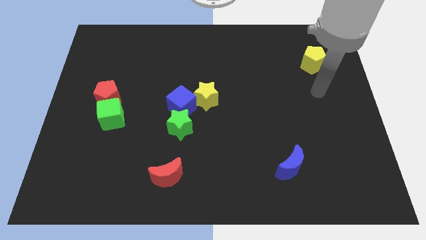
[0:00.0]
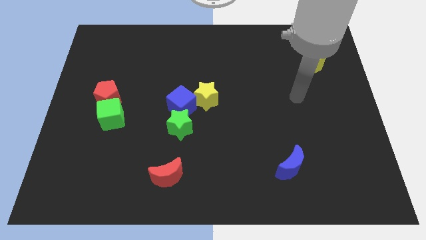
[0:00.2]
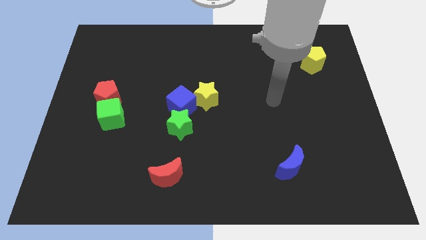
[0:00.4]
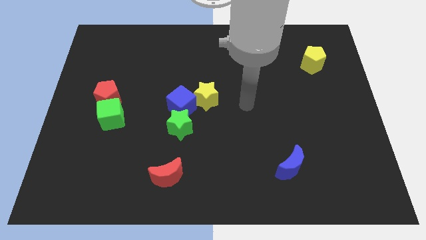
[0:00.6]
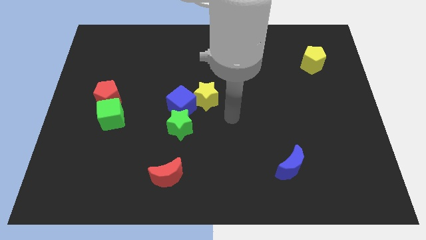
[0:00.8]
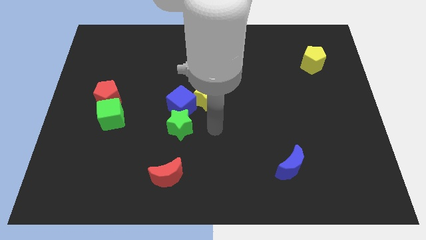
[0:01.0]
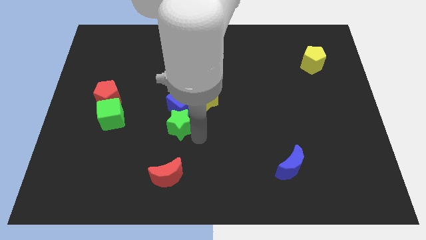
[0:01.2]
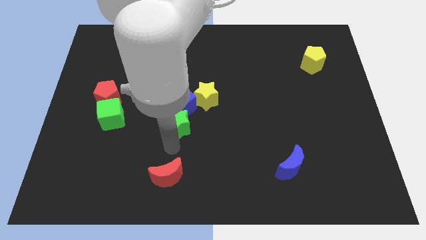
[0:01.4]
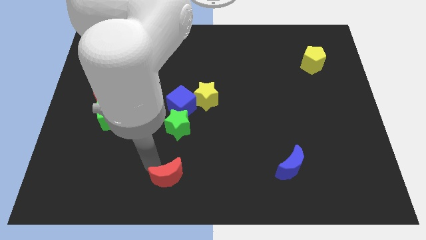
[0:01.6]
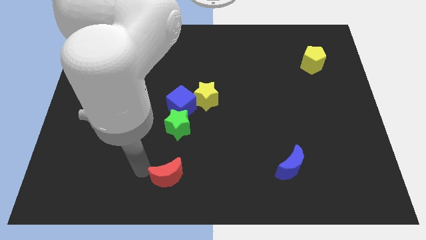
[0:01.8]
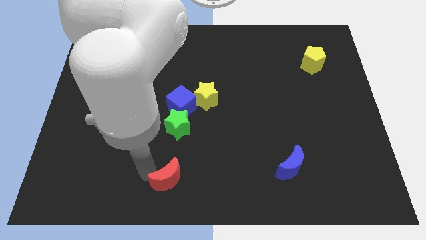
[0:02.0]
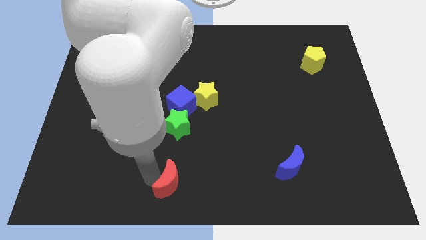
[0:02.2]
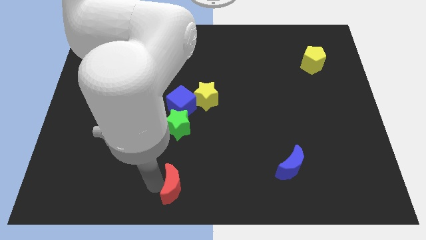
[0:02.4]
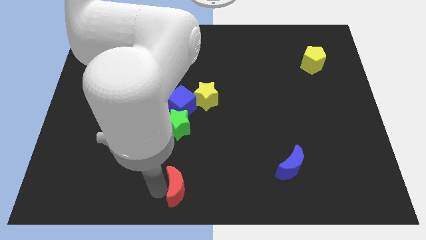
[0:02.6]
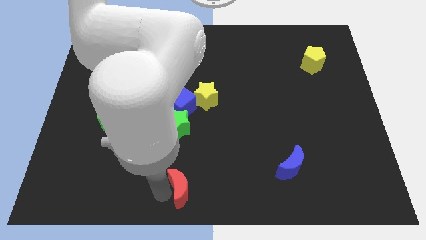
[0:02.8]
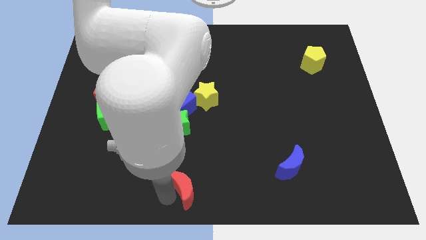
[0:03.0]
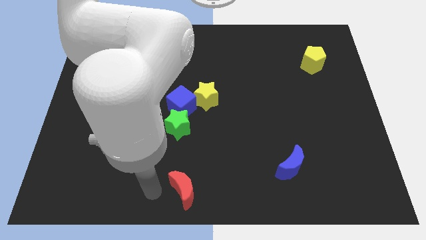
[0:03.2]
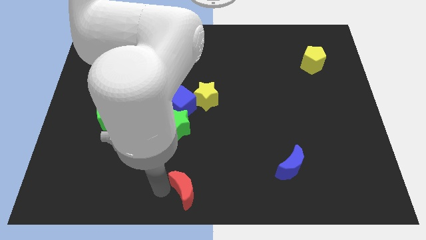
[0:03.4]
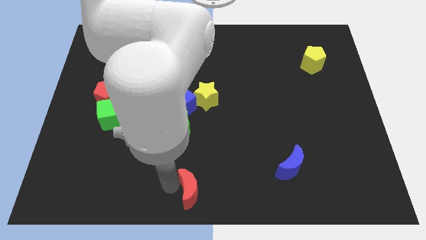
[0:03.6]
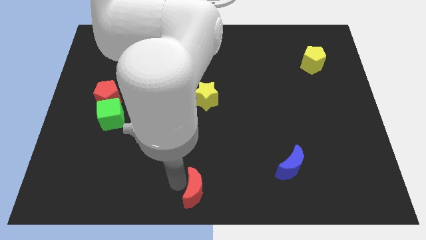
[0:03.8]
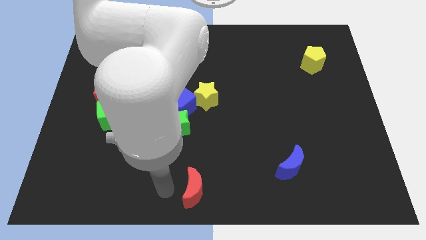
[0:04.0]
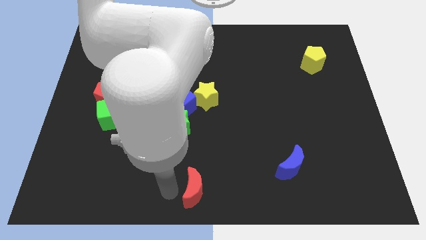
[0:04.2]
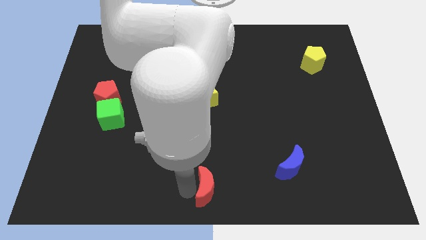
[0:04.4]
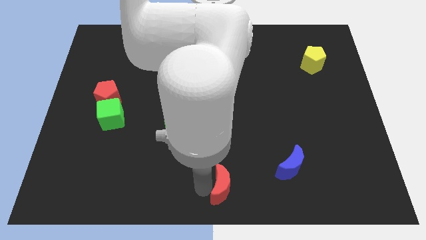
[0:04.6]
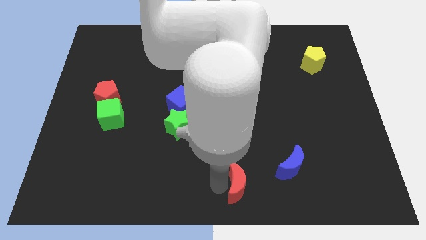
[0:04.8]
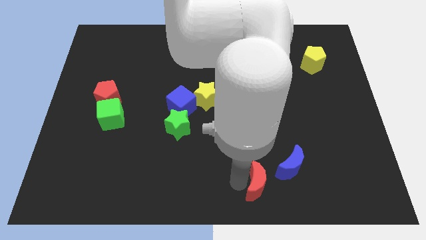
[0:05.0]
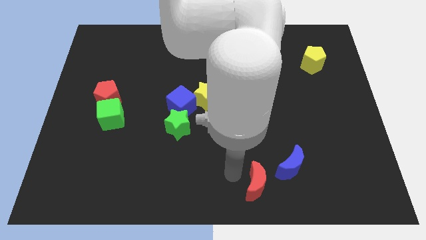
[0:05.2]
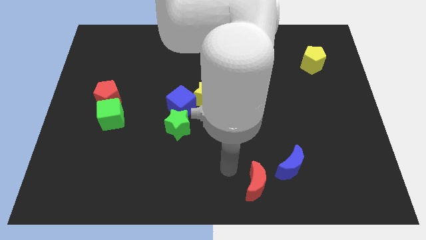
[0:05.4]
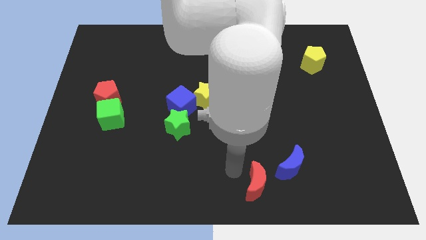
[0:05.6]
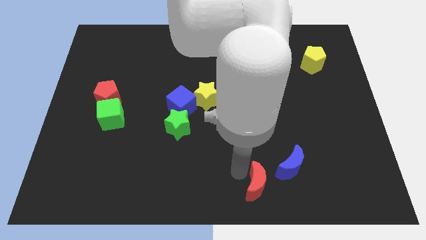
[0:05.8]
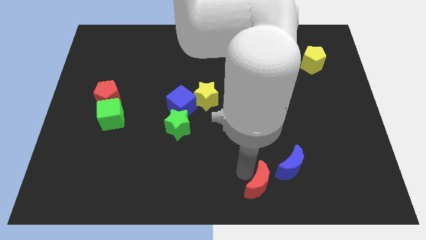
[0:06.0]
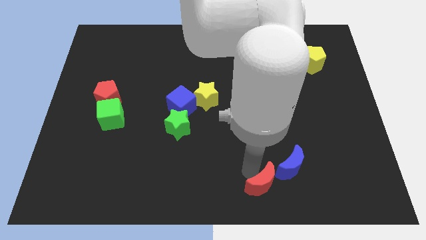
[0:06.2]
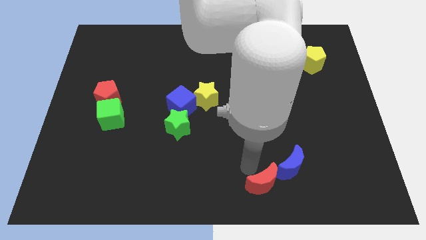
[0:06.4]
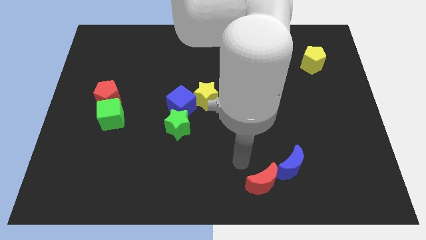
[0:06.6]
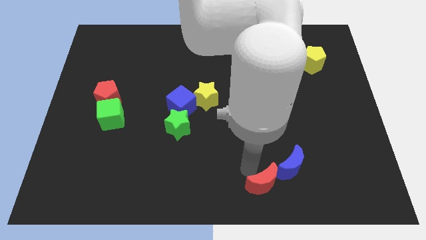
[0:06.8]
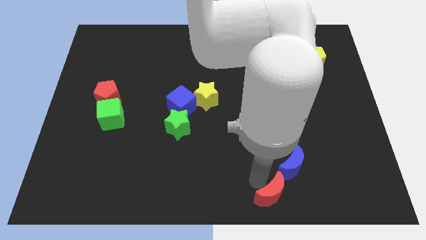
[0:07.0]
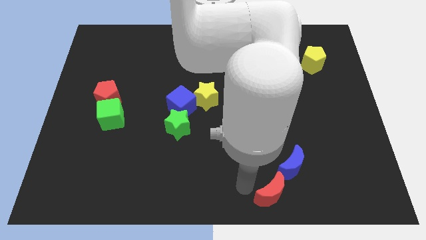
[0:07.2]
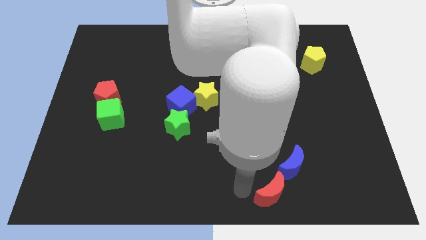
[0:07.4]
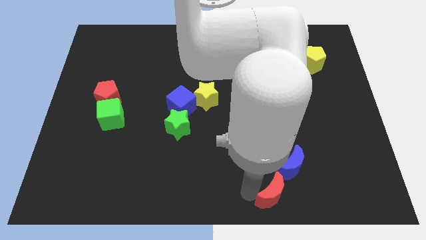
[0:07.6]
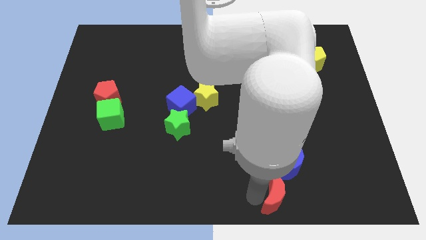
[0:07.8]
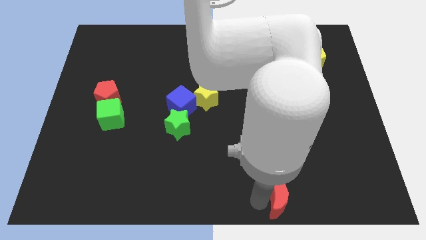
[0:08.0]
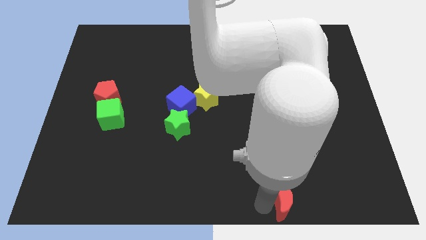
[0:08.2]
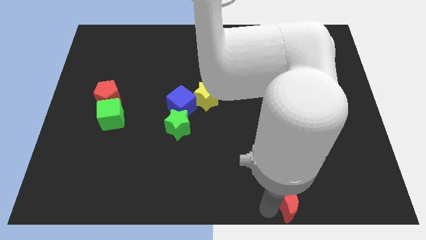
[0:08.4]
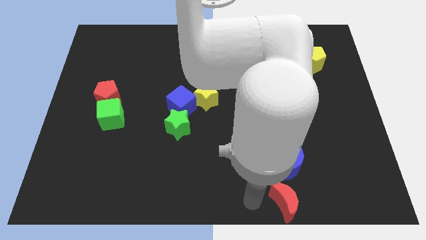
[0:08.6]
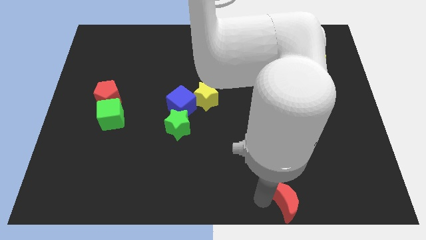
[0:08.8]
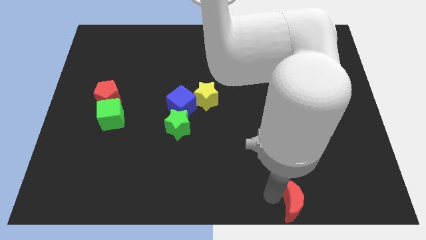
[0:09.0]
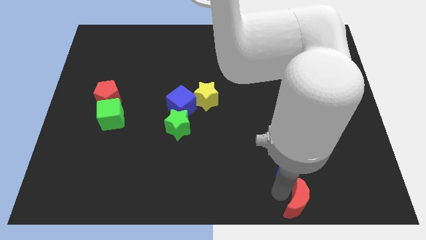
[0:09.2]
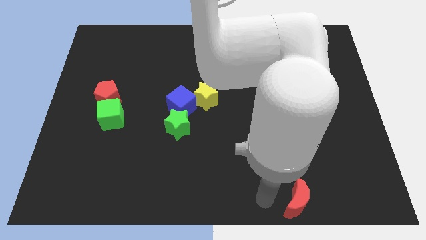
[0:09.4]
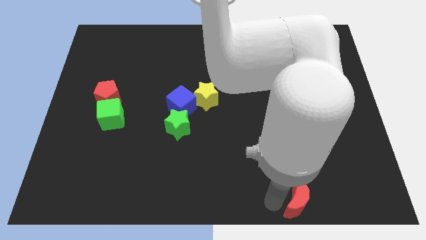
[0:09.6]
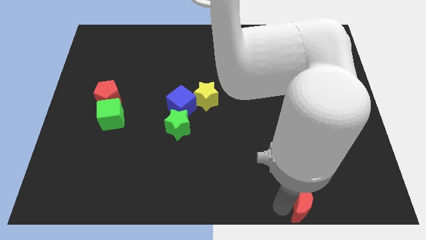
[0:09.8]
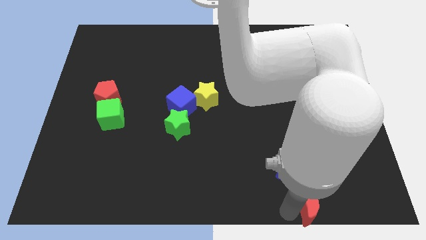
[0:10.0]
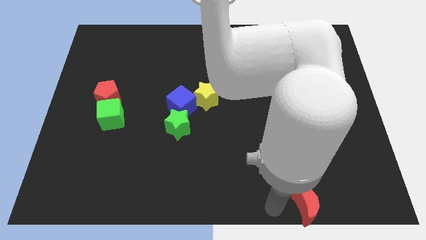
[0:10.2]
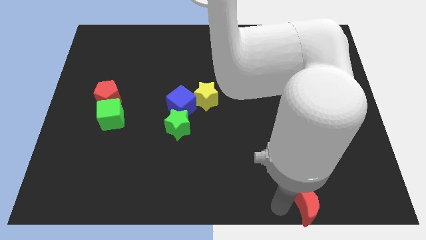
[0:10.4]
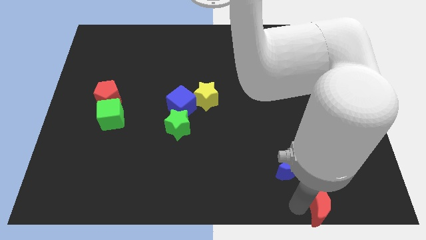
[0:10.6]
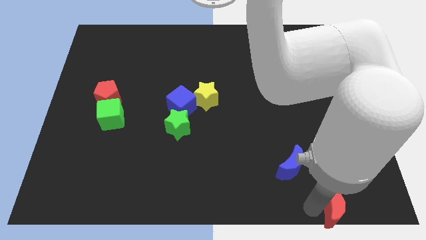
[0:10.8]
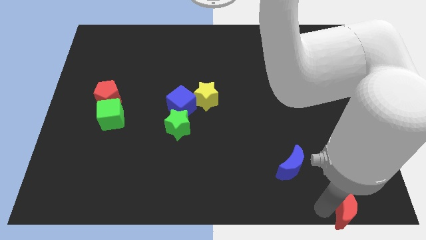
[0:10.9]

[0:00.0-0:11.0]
move the red moon to the bottom right corner

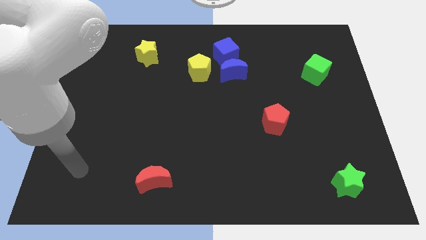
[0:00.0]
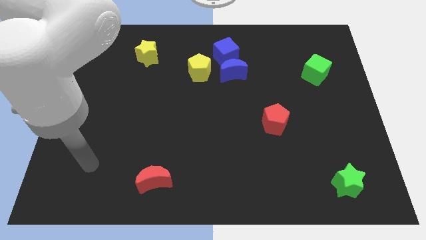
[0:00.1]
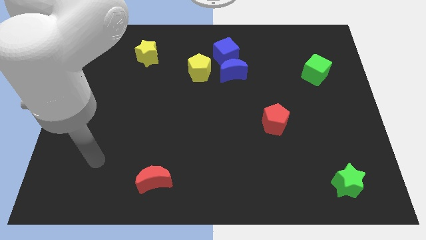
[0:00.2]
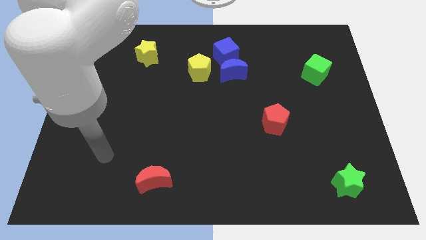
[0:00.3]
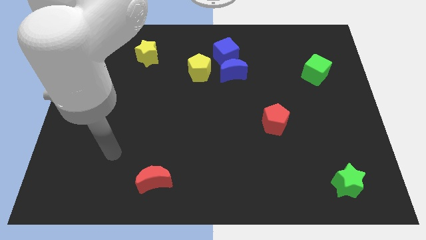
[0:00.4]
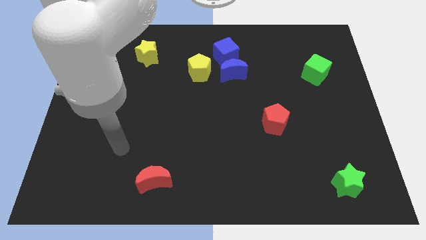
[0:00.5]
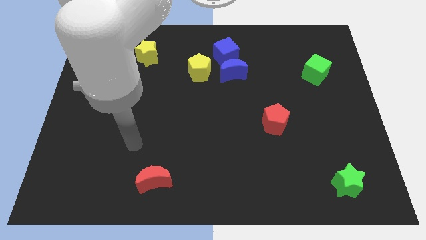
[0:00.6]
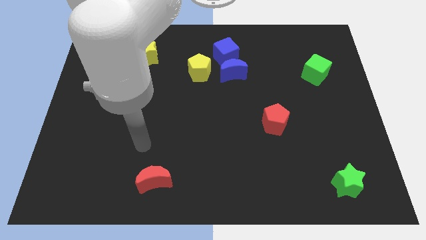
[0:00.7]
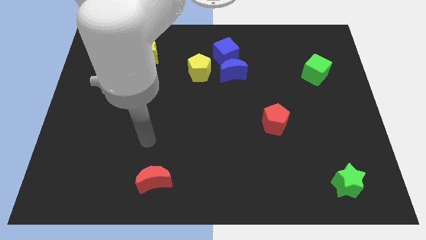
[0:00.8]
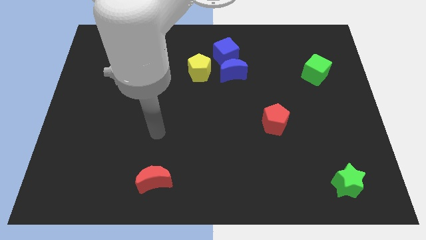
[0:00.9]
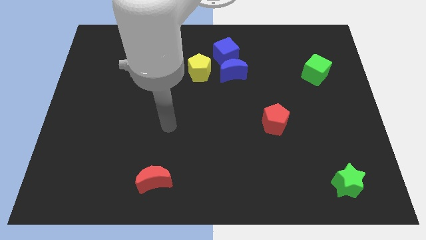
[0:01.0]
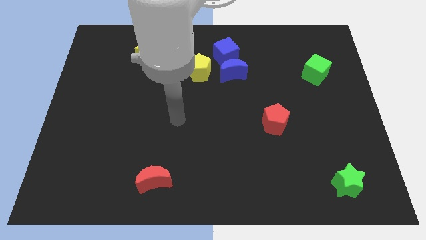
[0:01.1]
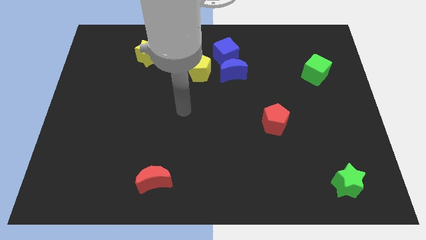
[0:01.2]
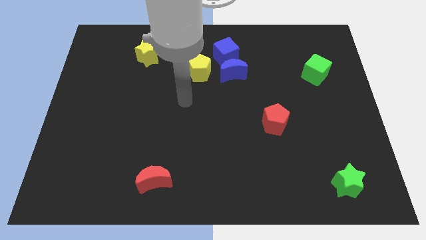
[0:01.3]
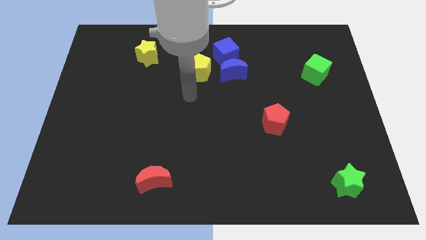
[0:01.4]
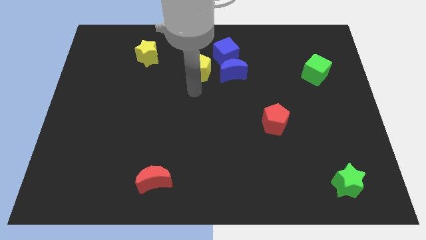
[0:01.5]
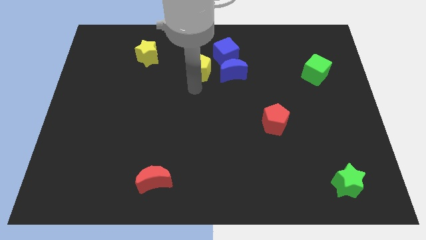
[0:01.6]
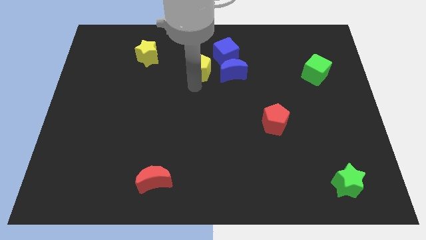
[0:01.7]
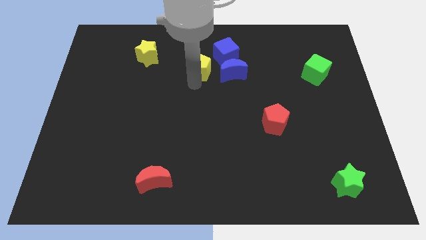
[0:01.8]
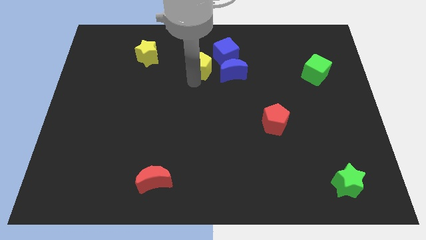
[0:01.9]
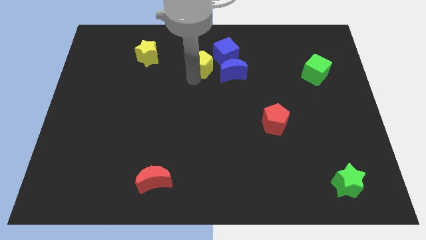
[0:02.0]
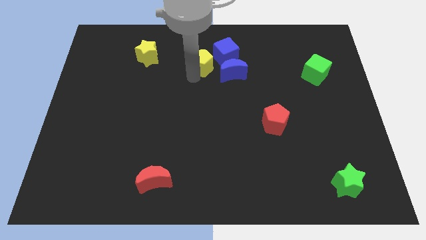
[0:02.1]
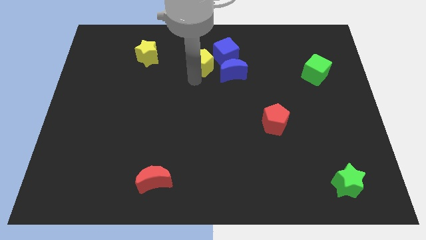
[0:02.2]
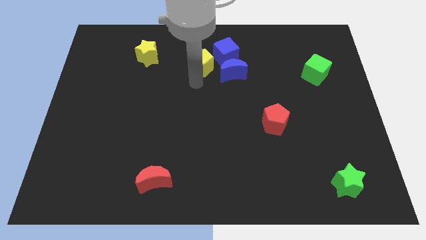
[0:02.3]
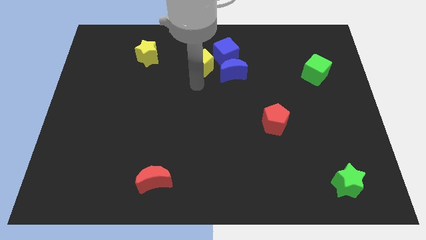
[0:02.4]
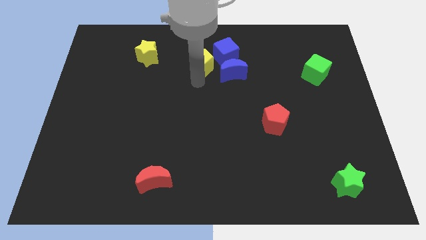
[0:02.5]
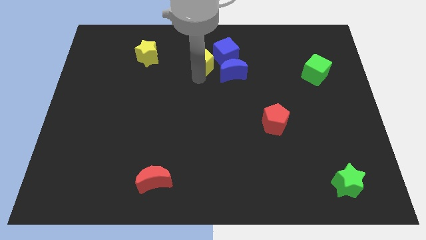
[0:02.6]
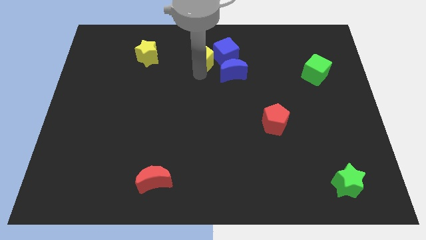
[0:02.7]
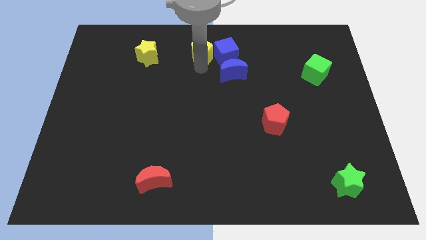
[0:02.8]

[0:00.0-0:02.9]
slide the yellow pentagon to the top
